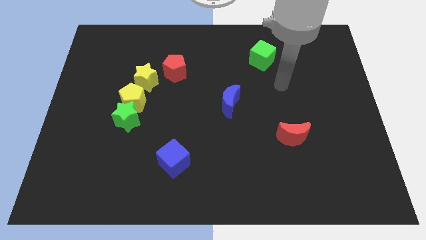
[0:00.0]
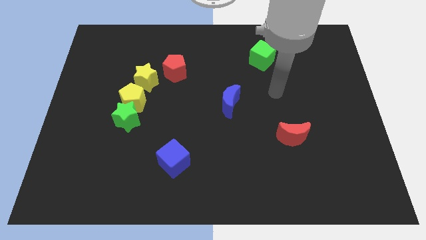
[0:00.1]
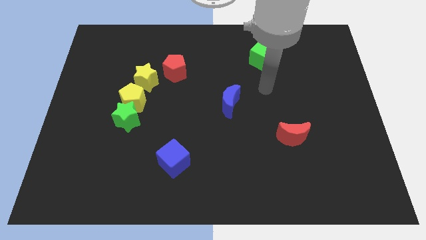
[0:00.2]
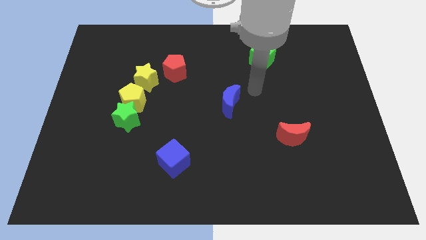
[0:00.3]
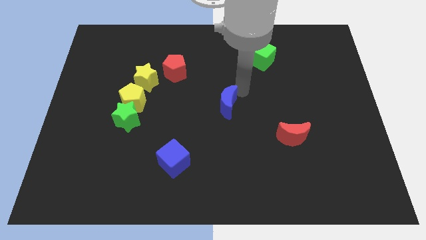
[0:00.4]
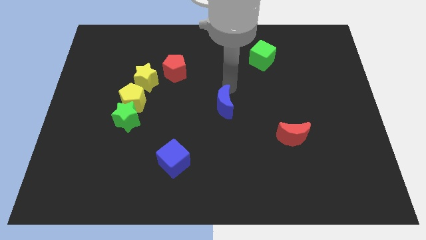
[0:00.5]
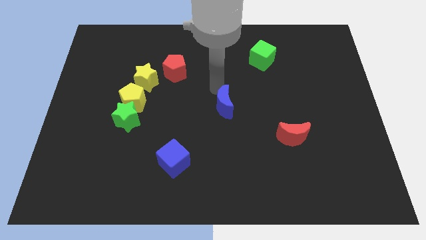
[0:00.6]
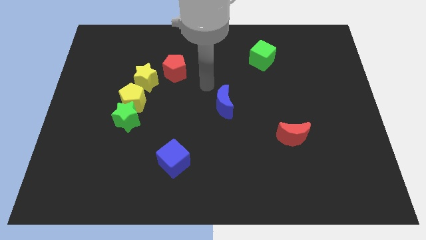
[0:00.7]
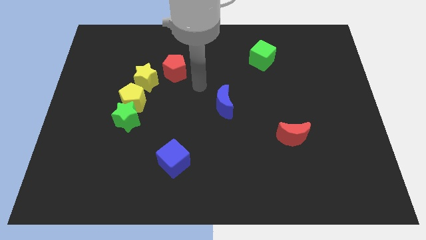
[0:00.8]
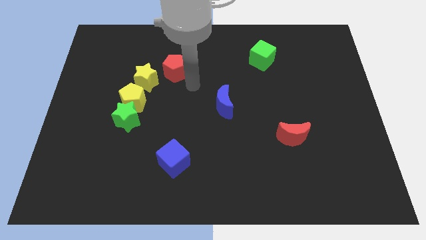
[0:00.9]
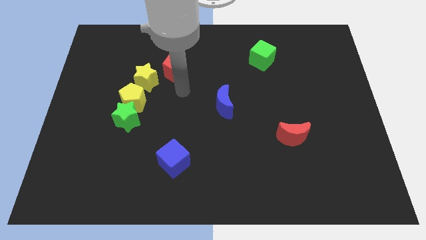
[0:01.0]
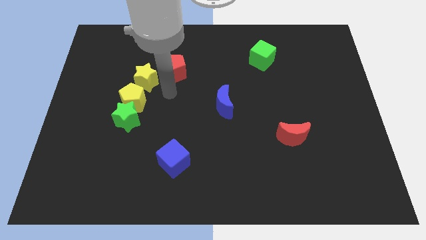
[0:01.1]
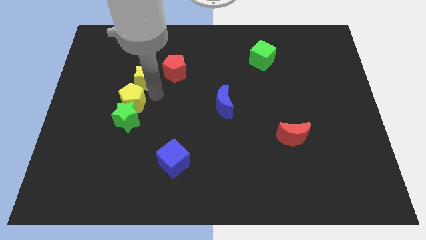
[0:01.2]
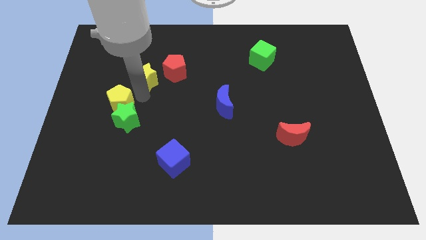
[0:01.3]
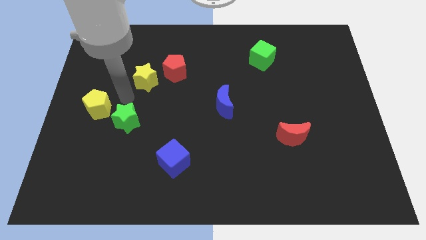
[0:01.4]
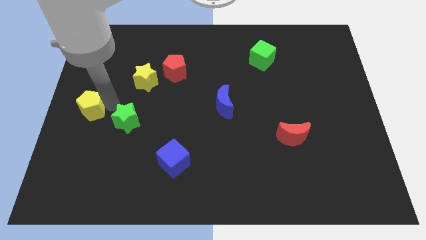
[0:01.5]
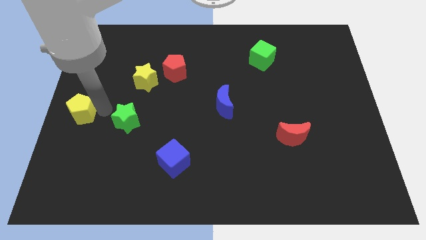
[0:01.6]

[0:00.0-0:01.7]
pull the green star apart from the yellow pentagon

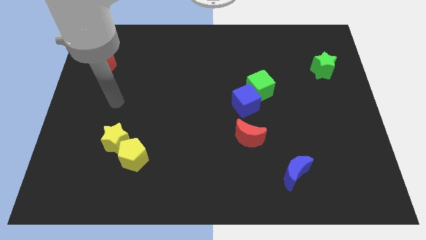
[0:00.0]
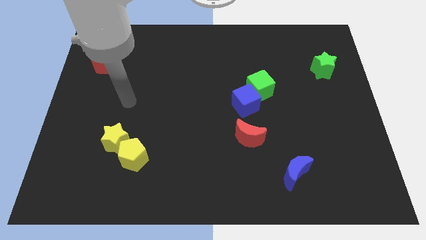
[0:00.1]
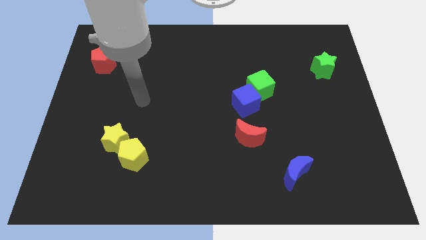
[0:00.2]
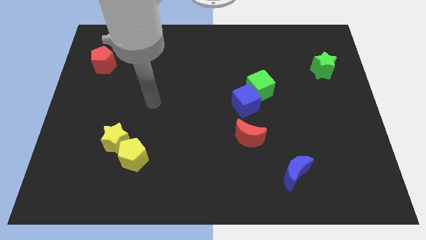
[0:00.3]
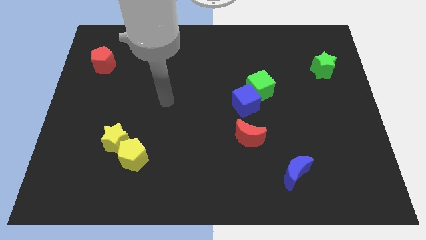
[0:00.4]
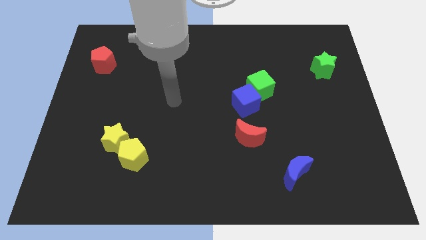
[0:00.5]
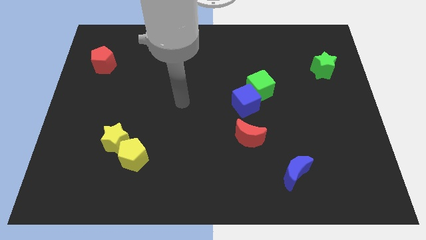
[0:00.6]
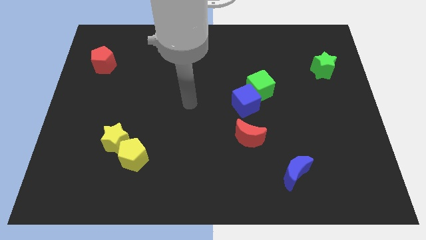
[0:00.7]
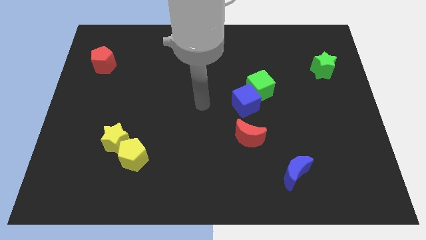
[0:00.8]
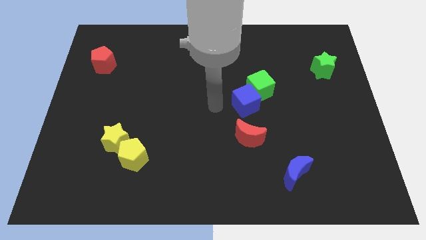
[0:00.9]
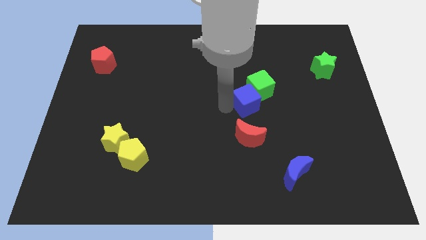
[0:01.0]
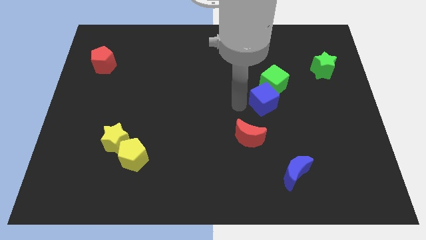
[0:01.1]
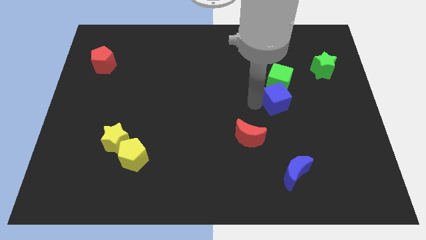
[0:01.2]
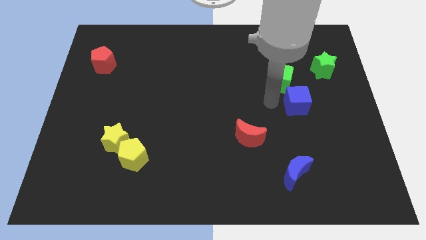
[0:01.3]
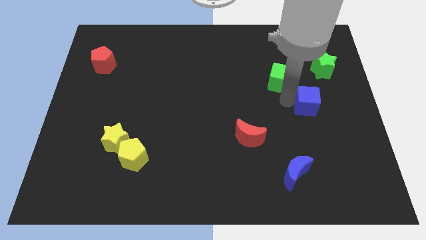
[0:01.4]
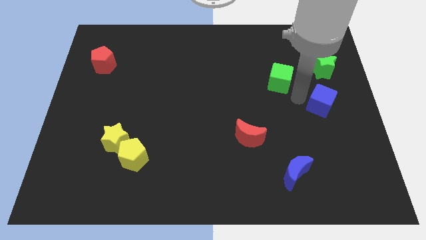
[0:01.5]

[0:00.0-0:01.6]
pull the green cube apart from the blue cube

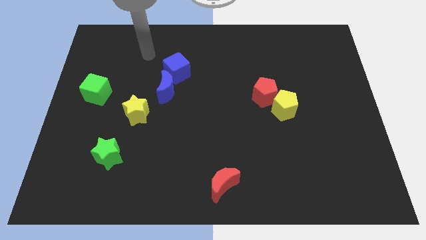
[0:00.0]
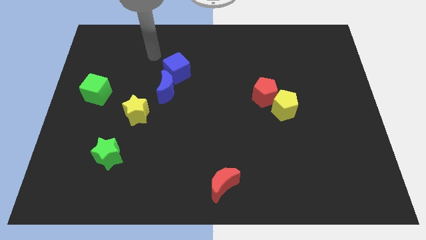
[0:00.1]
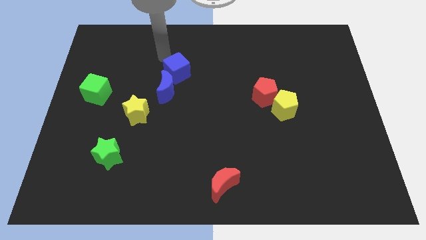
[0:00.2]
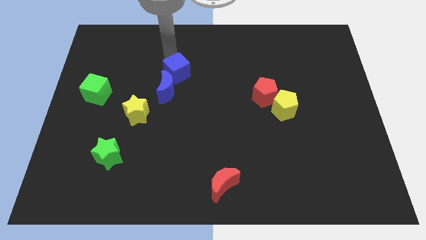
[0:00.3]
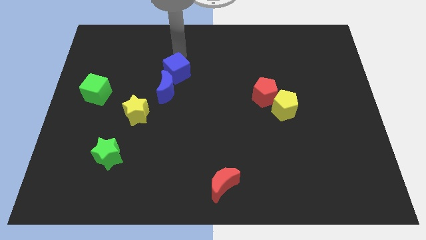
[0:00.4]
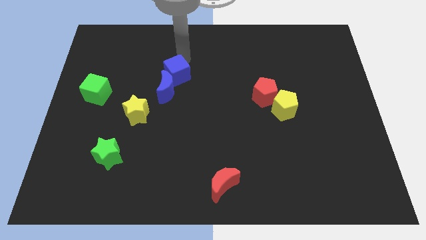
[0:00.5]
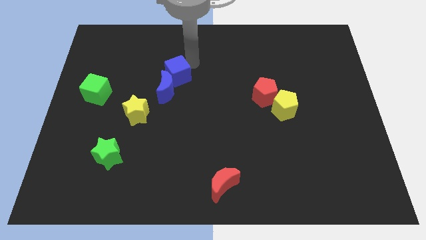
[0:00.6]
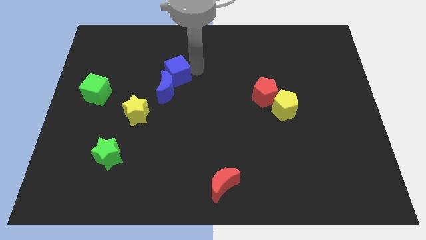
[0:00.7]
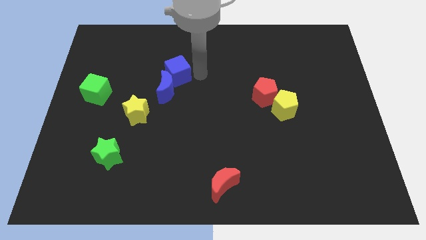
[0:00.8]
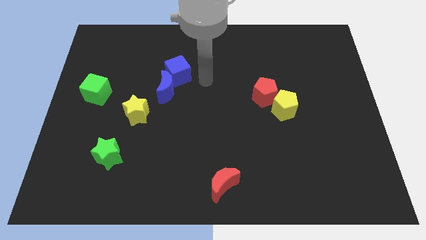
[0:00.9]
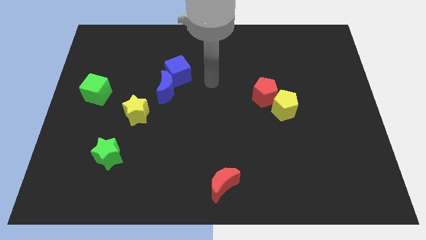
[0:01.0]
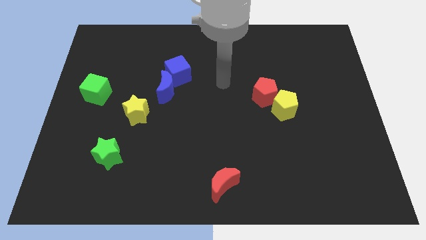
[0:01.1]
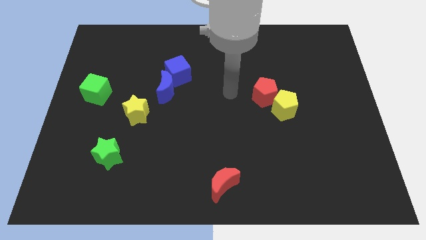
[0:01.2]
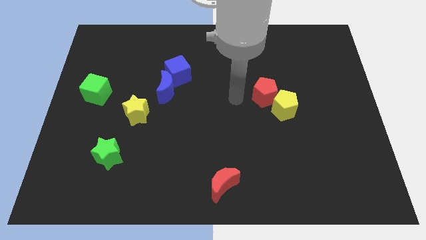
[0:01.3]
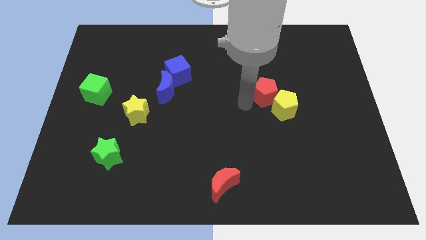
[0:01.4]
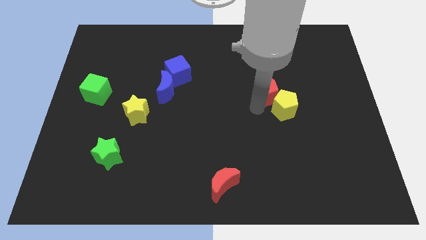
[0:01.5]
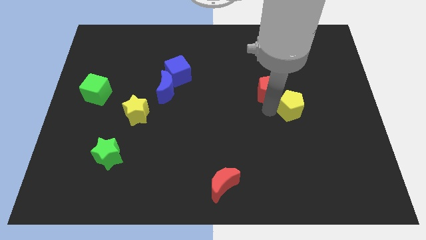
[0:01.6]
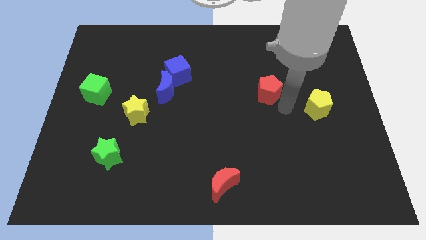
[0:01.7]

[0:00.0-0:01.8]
pull the red pentagon apart from the yellow pentagon

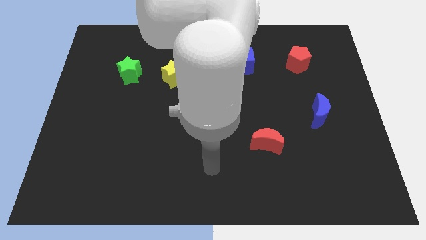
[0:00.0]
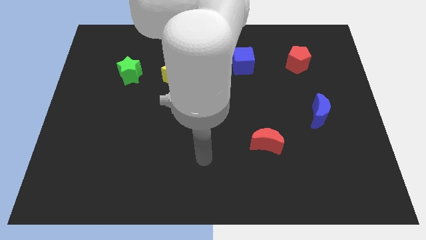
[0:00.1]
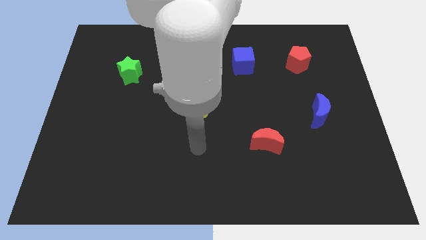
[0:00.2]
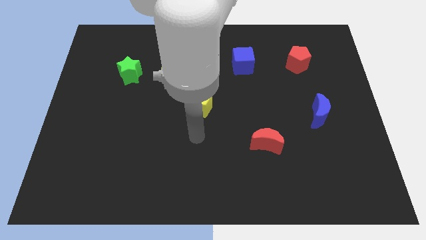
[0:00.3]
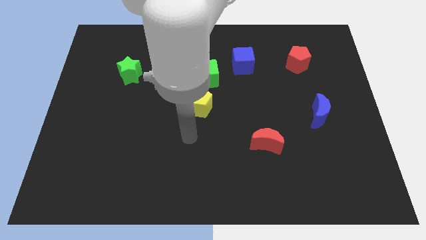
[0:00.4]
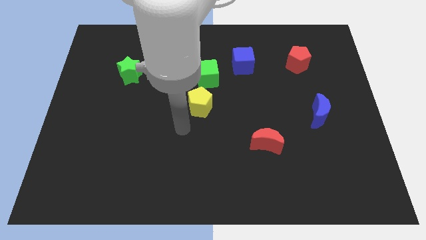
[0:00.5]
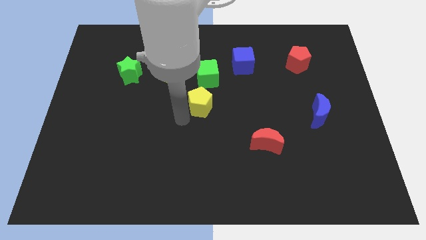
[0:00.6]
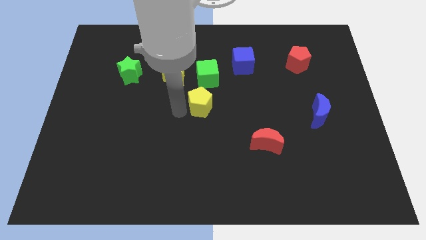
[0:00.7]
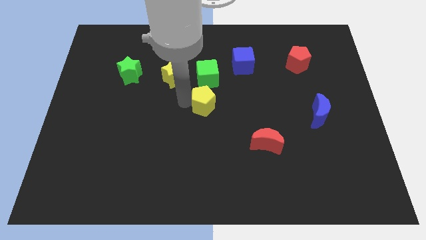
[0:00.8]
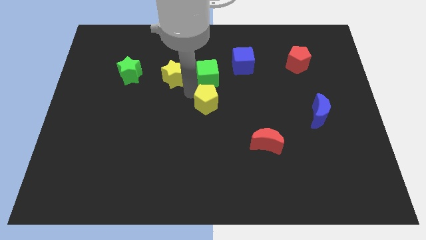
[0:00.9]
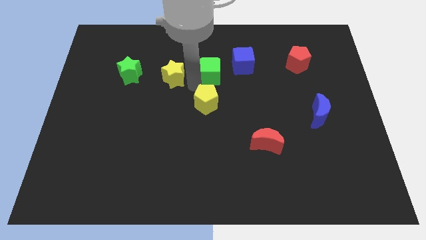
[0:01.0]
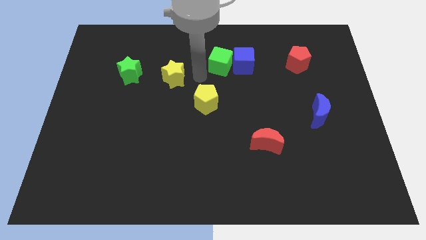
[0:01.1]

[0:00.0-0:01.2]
move the yellow star away from the green cube

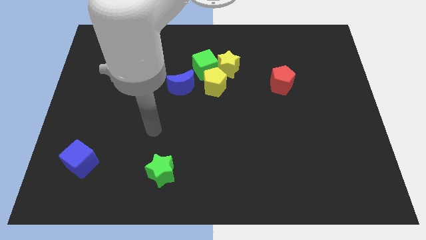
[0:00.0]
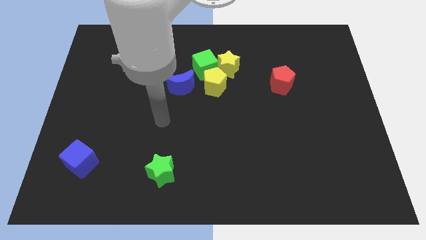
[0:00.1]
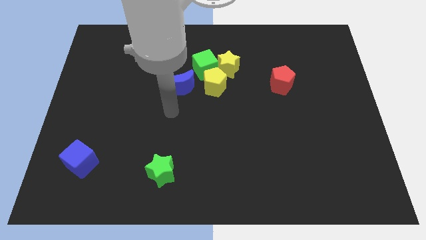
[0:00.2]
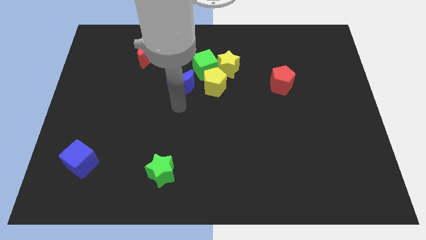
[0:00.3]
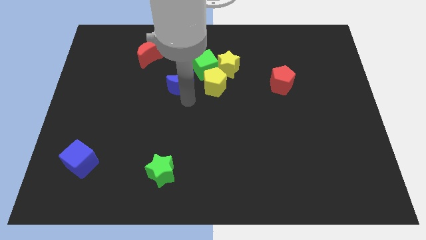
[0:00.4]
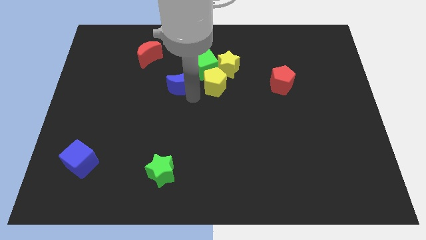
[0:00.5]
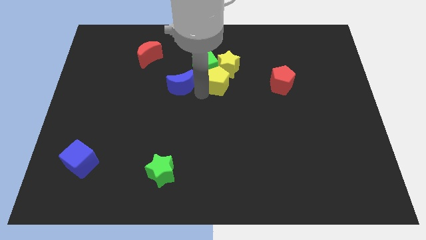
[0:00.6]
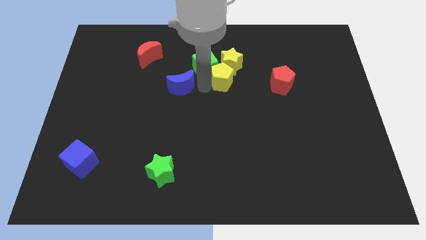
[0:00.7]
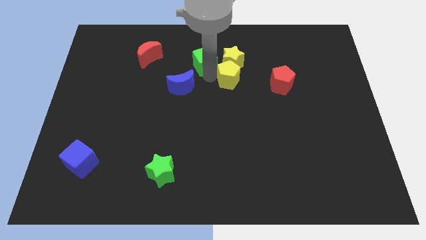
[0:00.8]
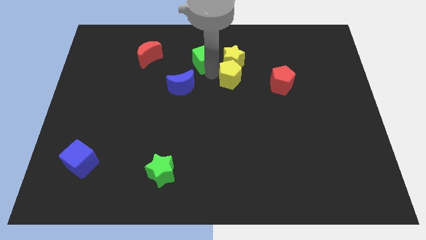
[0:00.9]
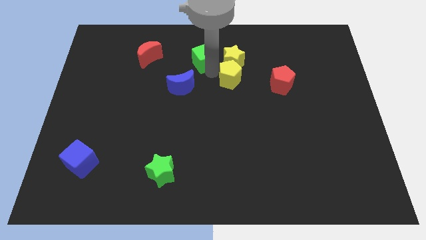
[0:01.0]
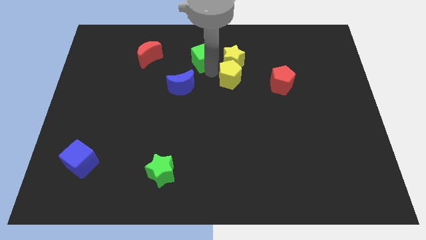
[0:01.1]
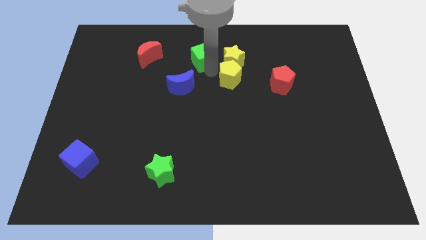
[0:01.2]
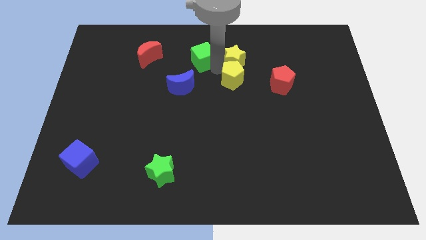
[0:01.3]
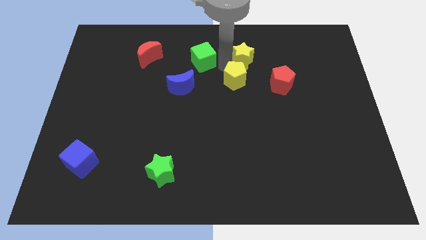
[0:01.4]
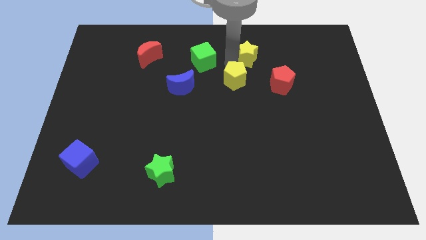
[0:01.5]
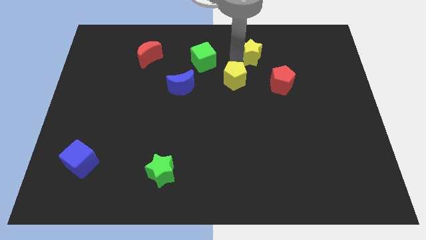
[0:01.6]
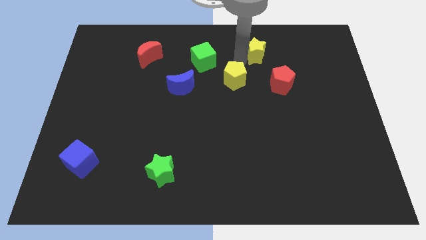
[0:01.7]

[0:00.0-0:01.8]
pull the yellow star apart from the green cube and yellow pentagon

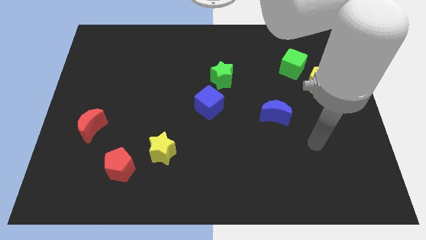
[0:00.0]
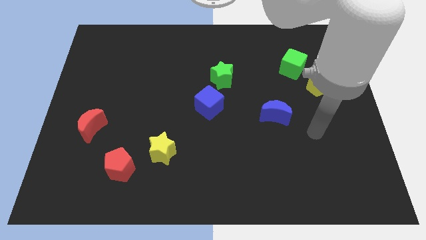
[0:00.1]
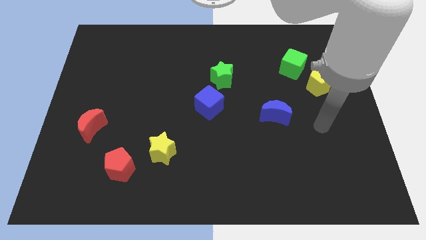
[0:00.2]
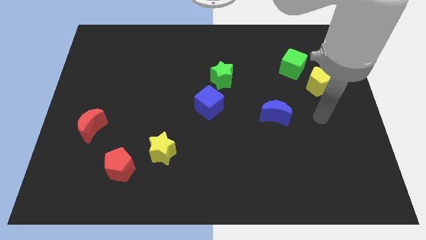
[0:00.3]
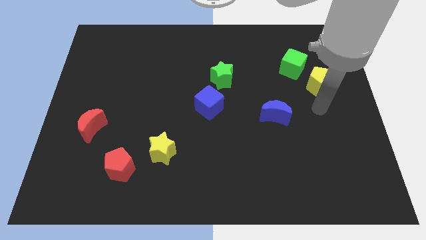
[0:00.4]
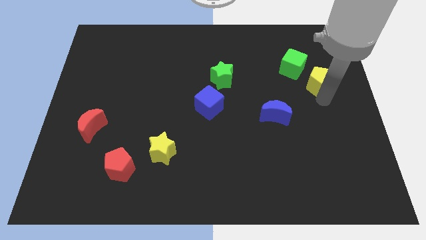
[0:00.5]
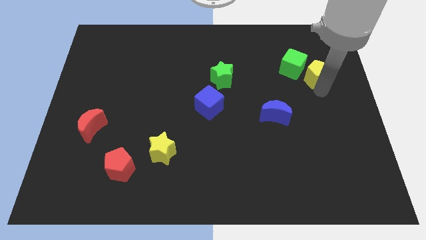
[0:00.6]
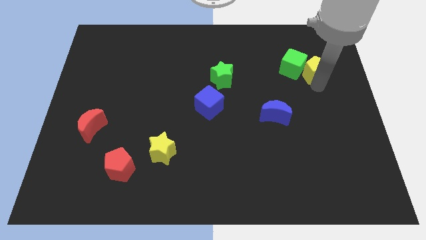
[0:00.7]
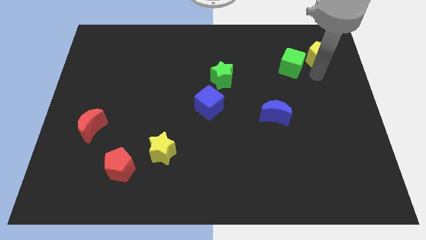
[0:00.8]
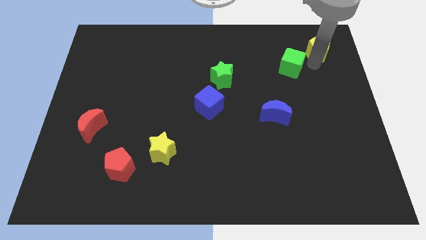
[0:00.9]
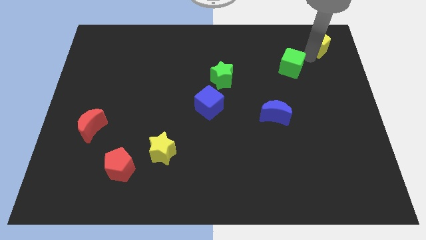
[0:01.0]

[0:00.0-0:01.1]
pull the green cube apart from the yellow pentagon
